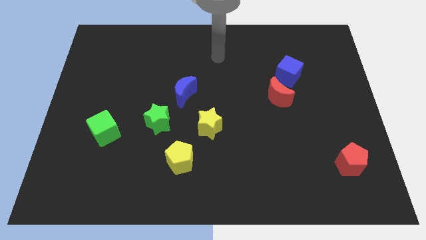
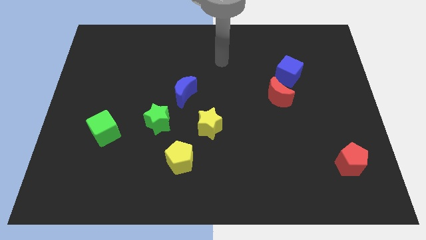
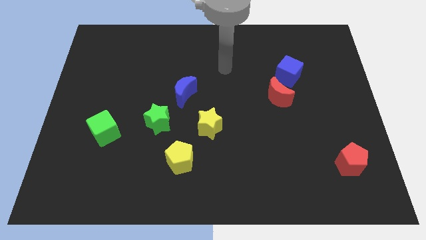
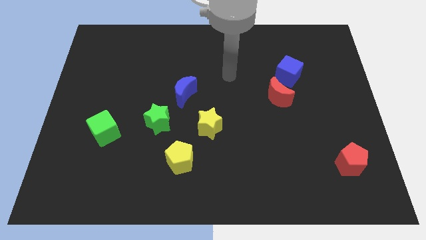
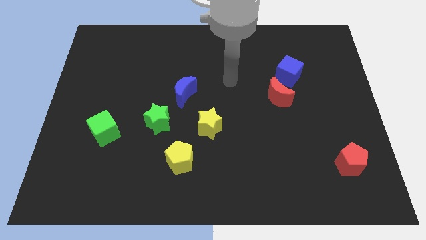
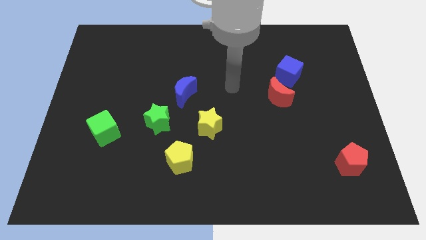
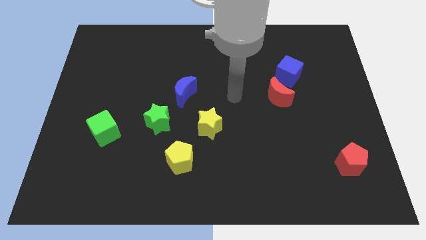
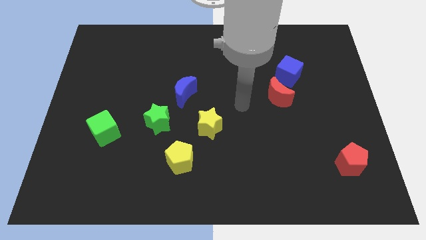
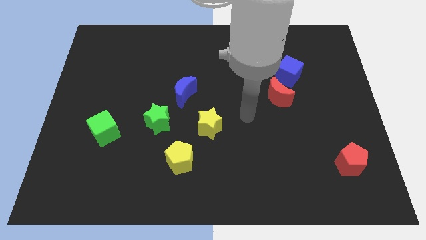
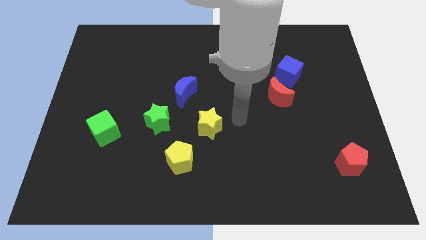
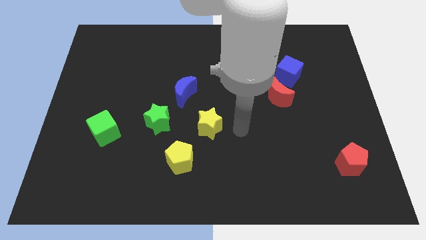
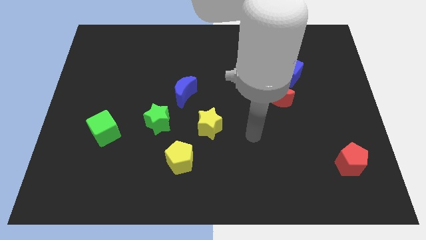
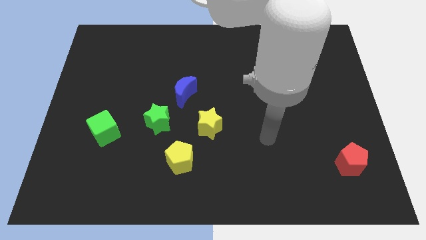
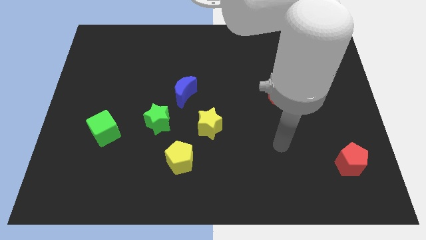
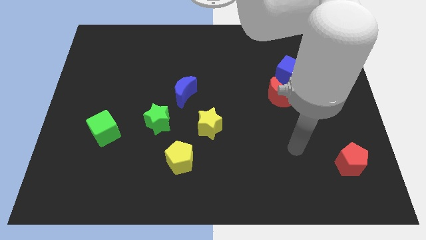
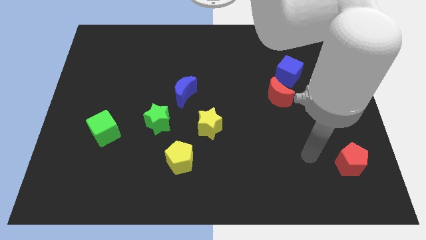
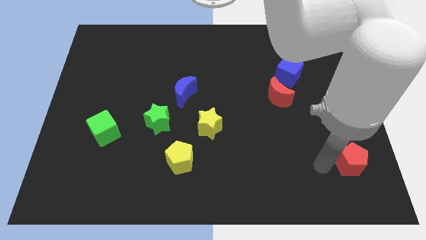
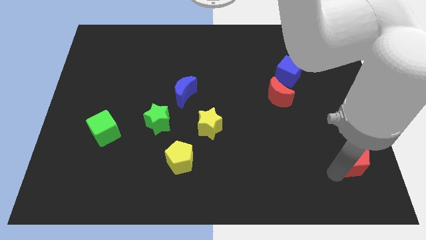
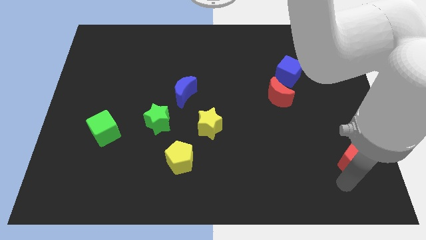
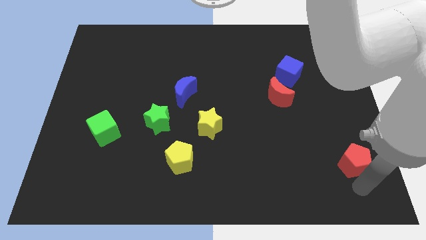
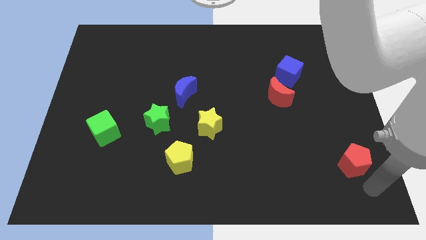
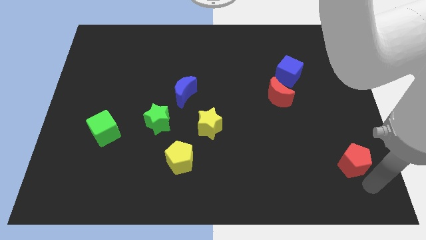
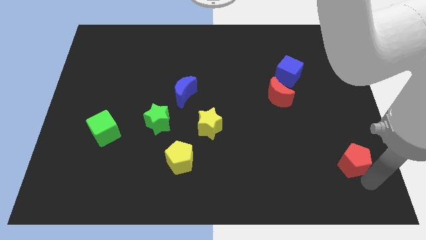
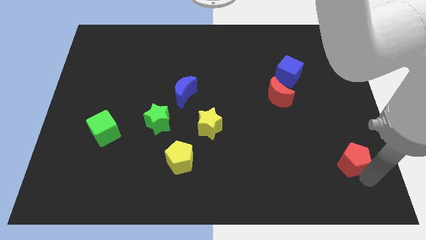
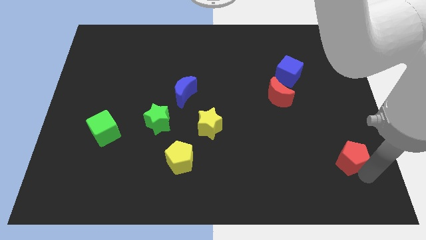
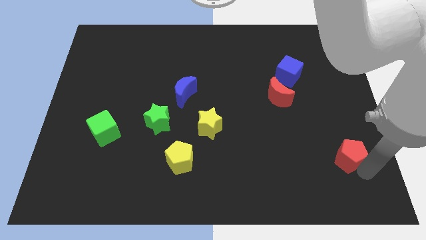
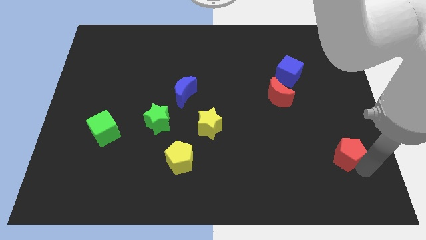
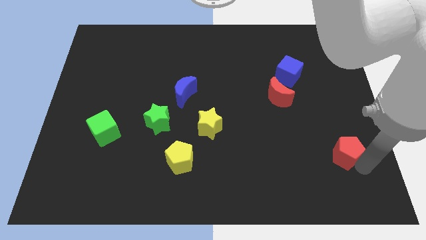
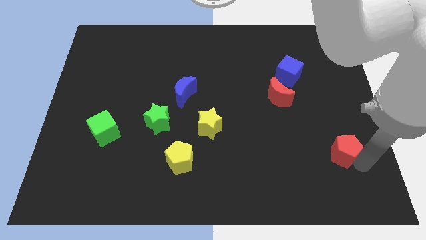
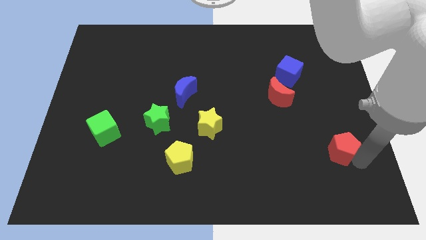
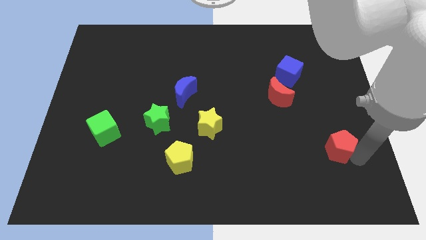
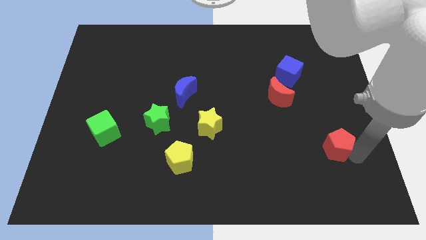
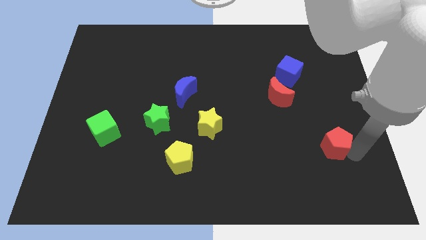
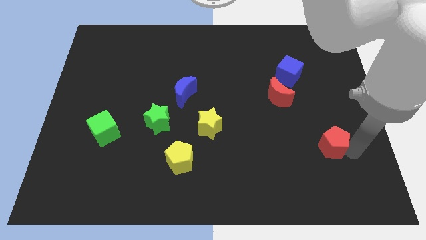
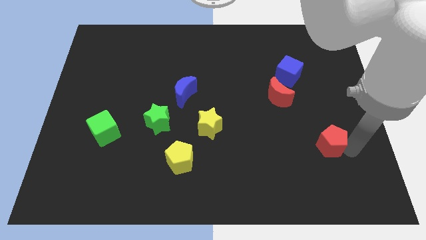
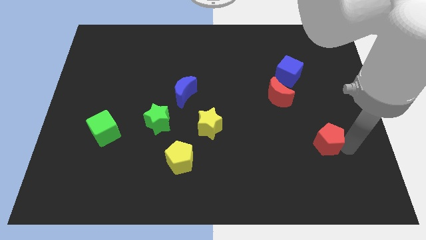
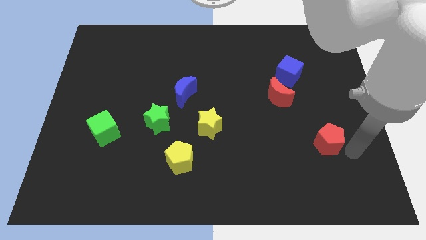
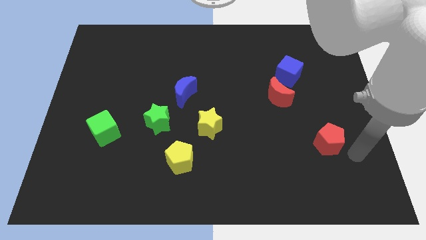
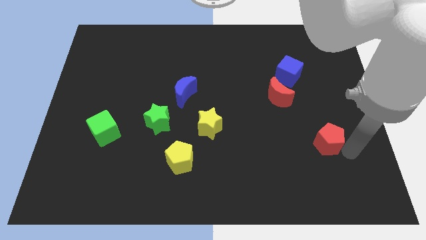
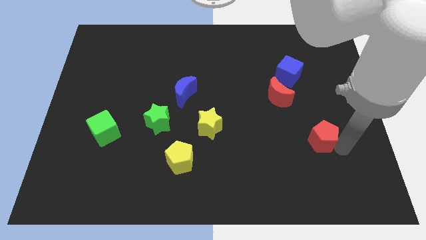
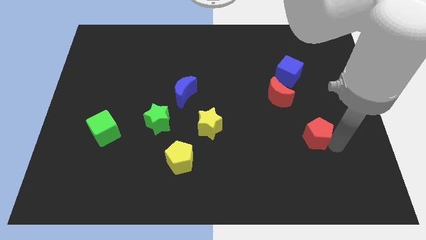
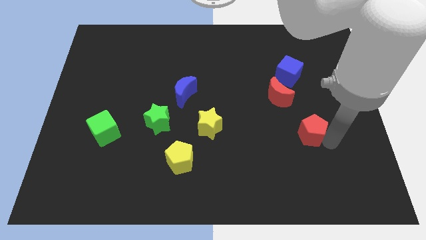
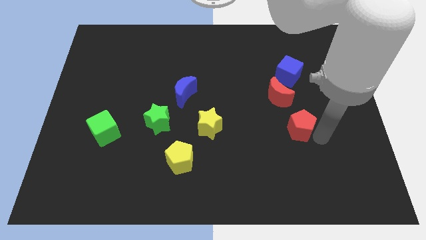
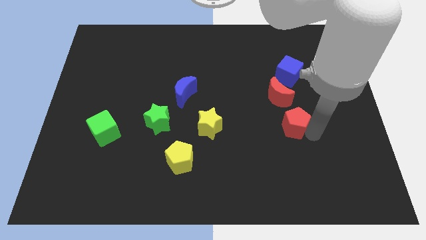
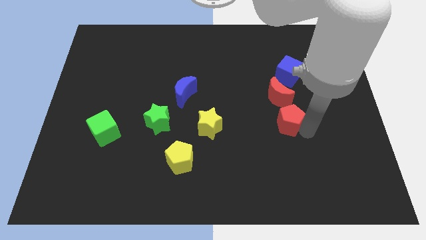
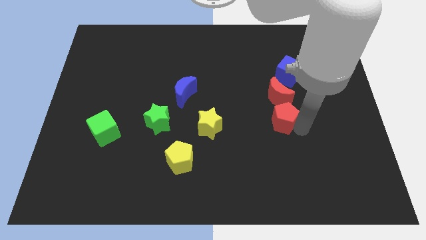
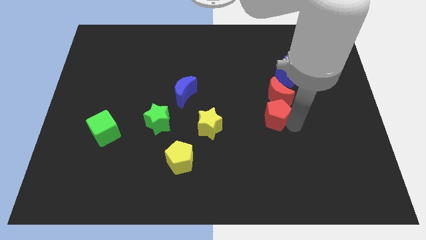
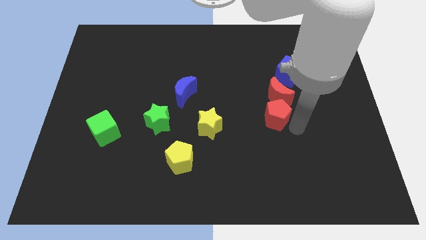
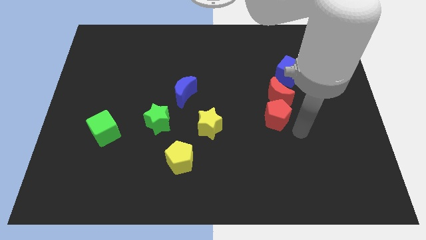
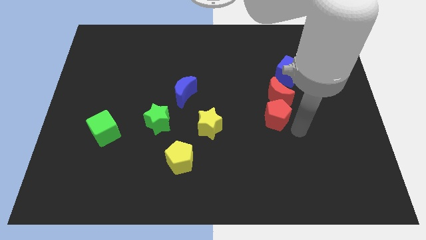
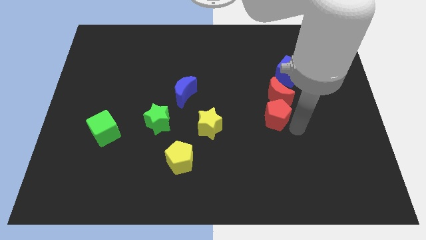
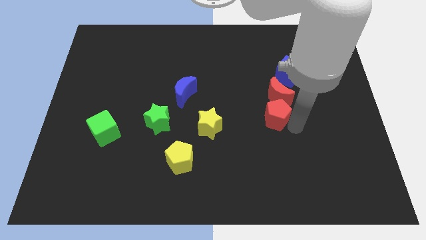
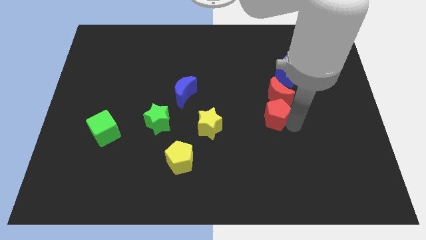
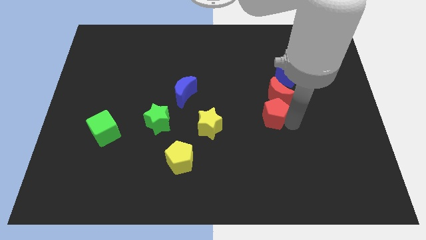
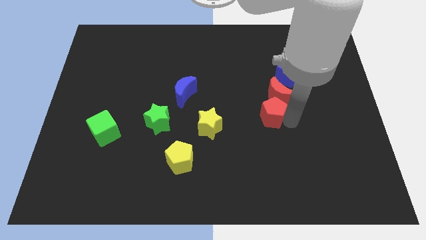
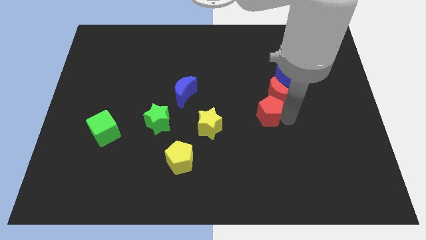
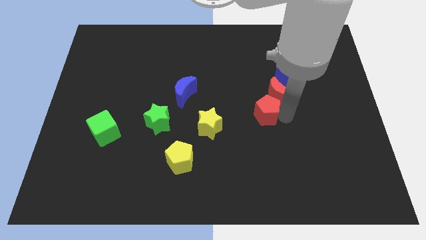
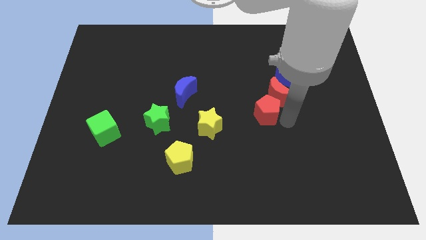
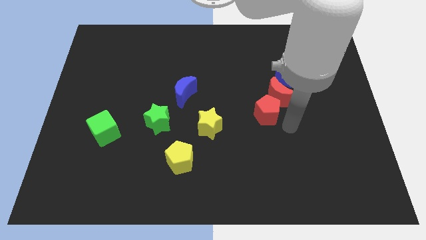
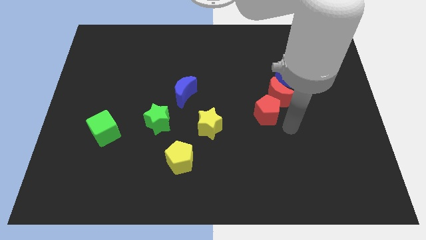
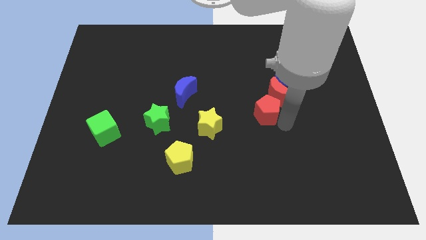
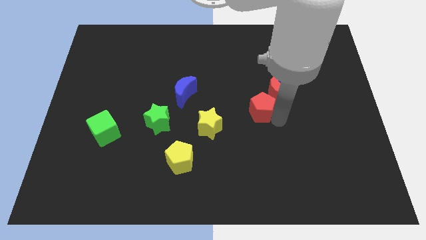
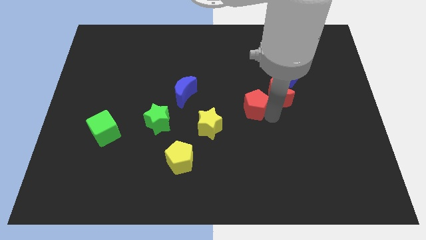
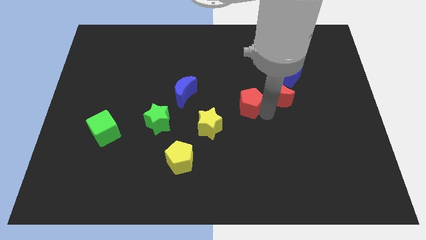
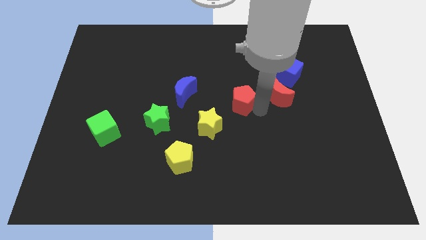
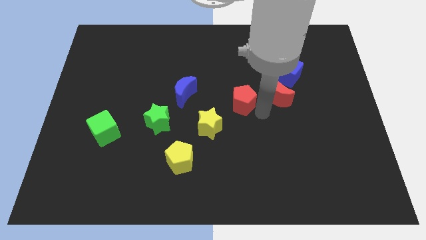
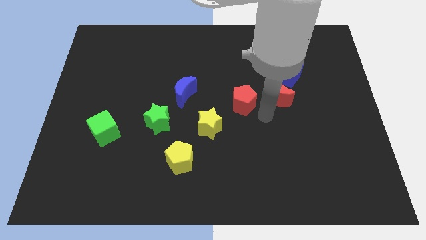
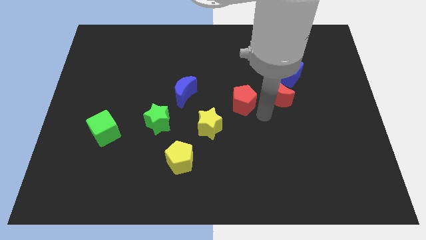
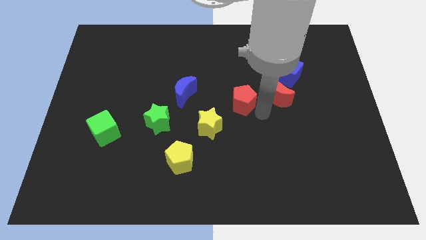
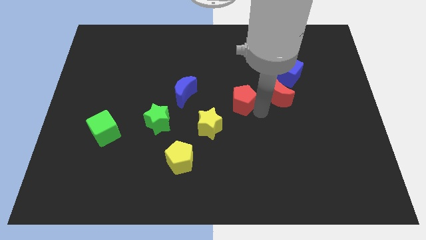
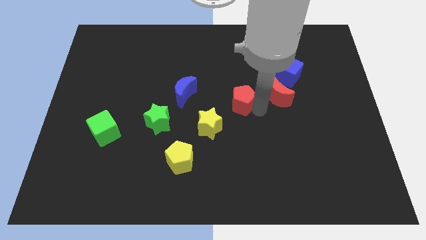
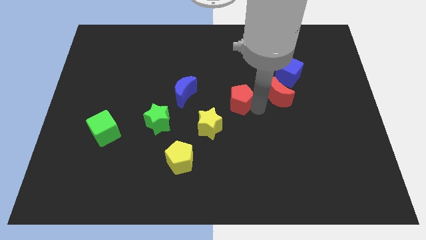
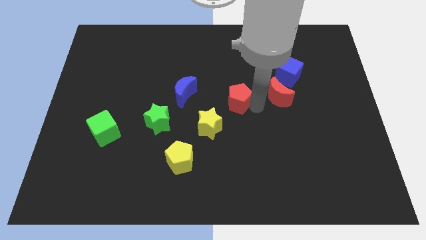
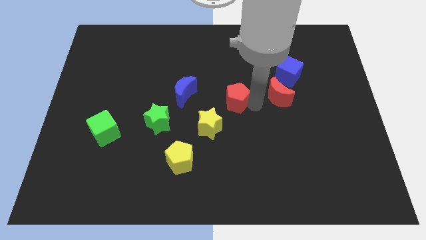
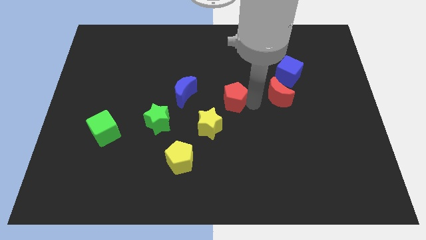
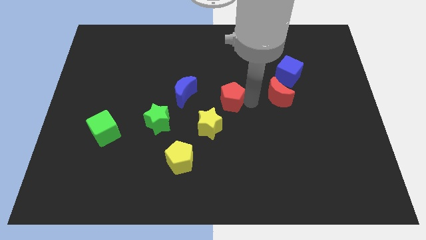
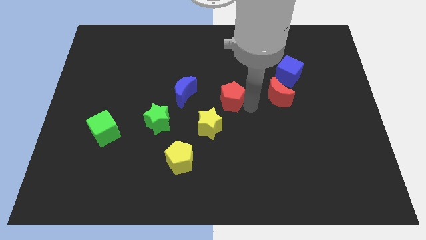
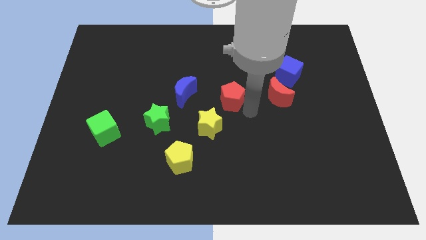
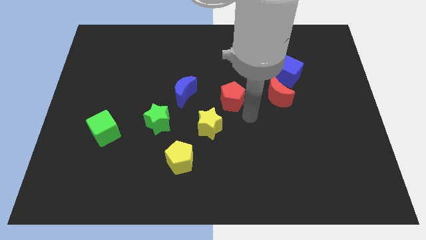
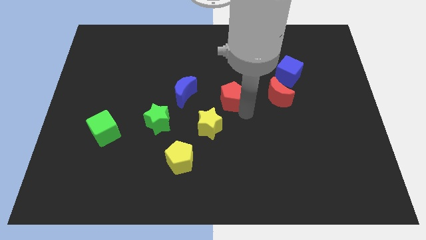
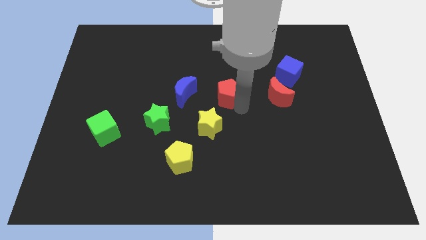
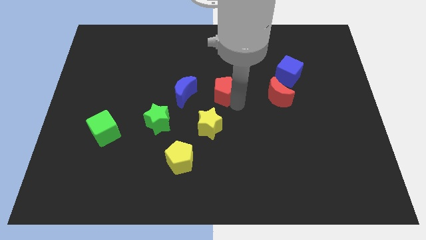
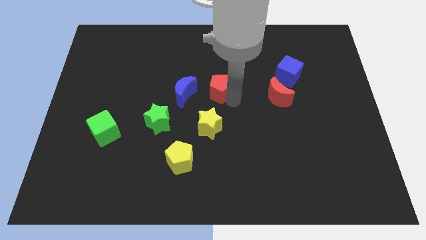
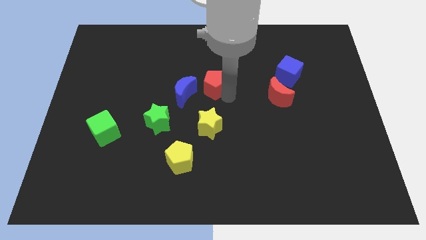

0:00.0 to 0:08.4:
slide the red pentagon to the top right side of the blue moon
